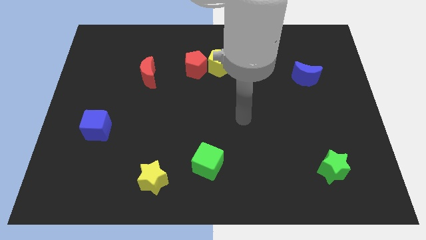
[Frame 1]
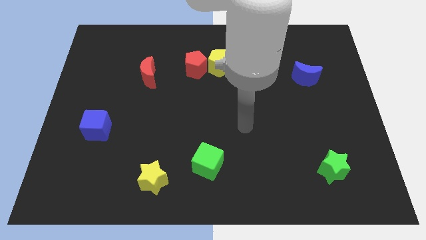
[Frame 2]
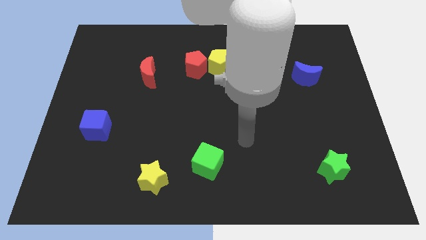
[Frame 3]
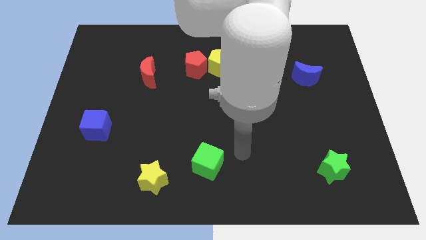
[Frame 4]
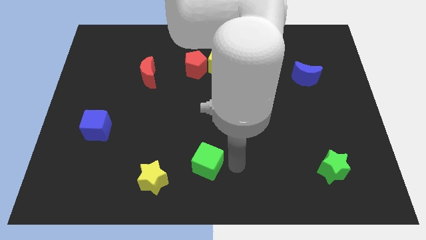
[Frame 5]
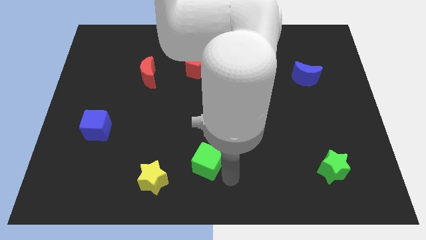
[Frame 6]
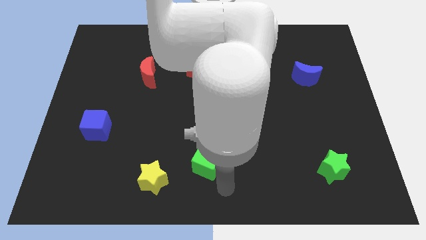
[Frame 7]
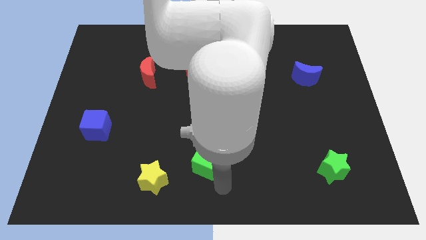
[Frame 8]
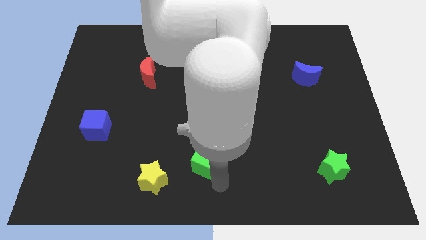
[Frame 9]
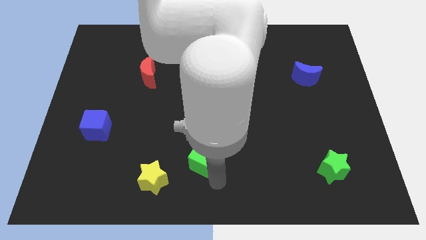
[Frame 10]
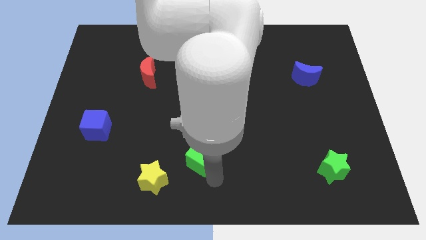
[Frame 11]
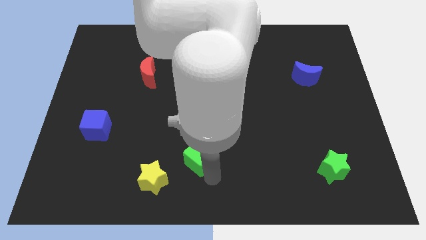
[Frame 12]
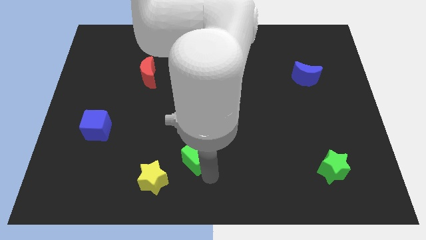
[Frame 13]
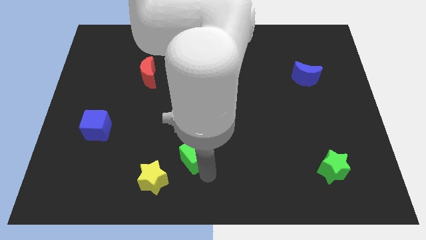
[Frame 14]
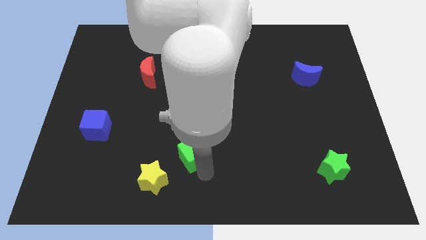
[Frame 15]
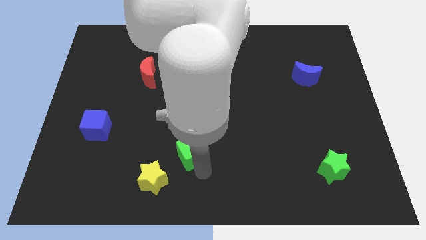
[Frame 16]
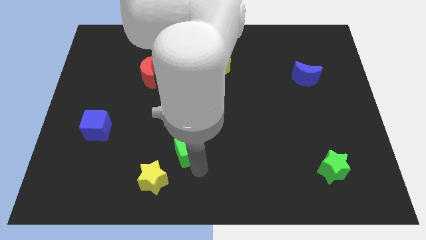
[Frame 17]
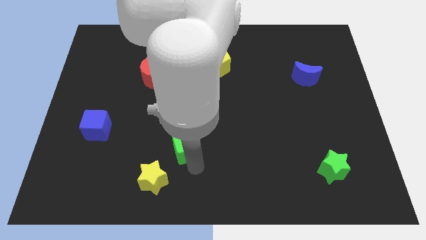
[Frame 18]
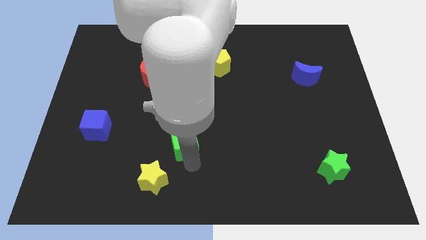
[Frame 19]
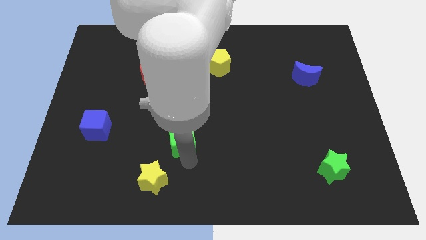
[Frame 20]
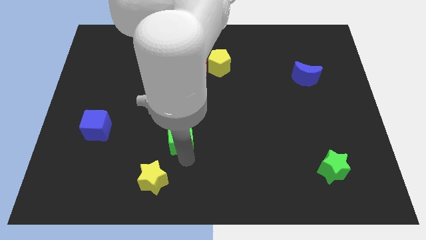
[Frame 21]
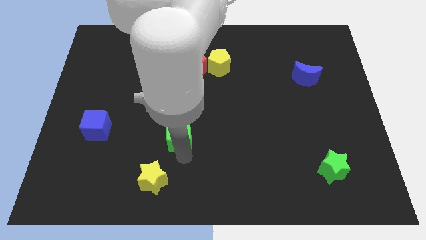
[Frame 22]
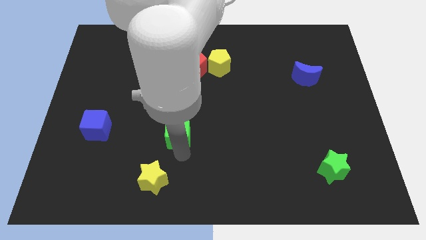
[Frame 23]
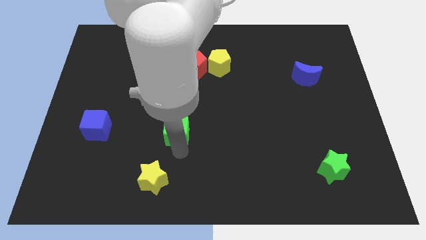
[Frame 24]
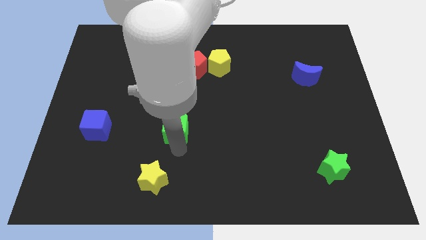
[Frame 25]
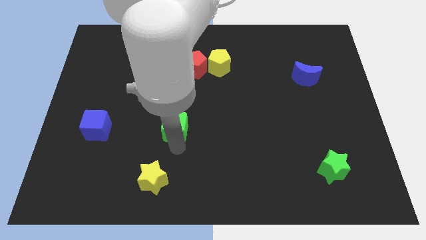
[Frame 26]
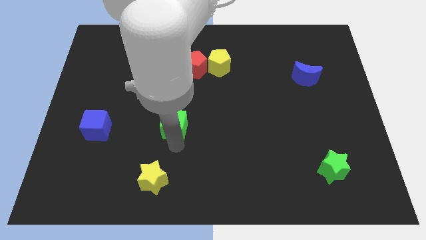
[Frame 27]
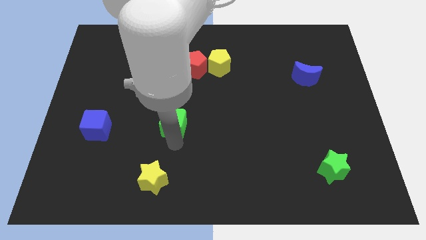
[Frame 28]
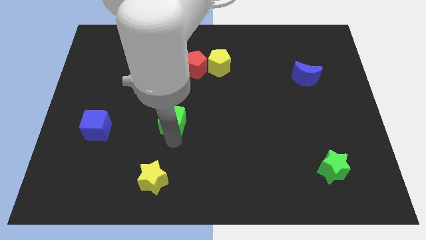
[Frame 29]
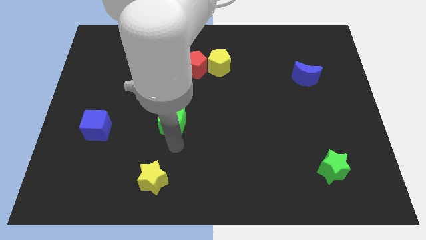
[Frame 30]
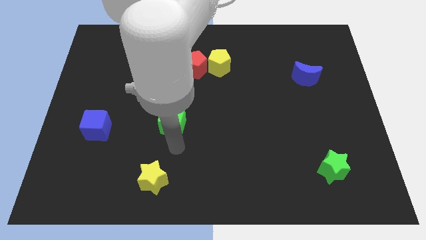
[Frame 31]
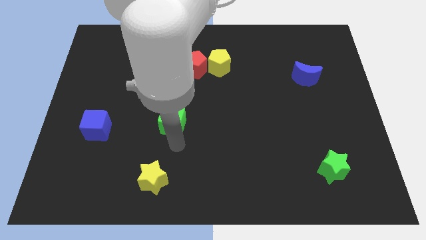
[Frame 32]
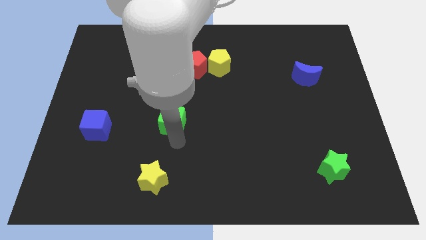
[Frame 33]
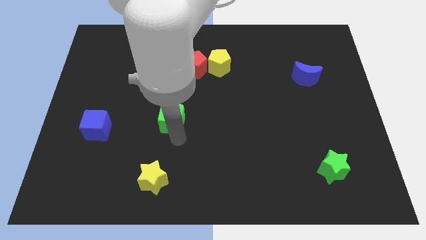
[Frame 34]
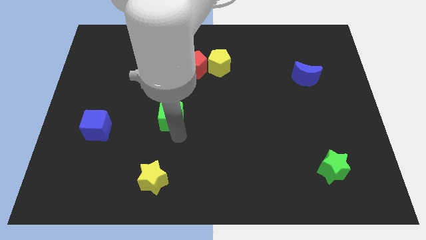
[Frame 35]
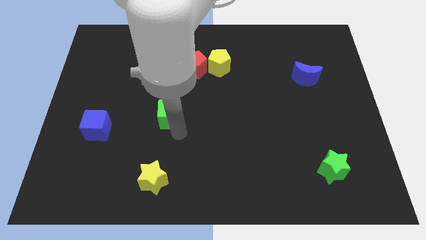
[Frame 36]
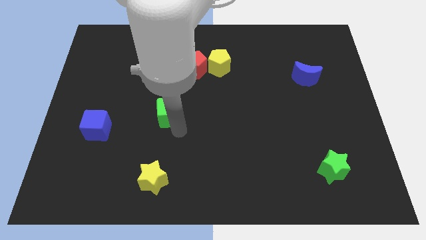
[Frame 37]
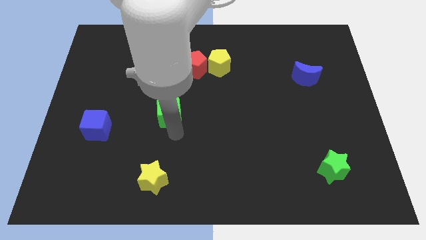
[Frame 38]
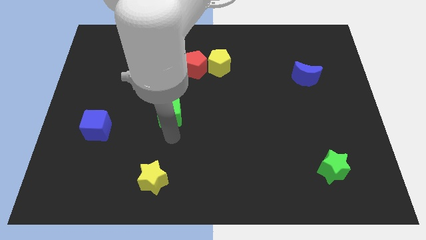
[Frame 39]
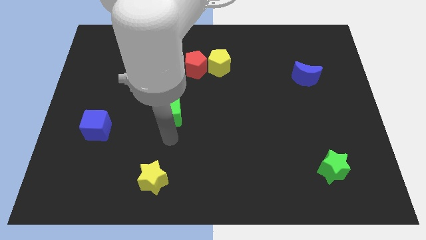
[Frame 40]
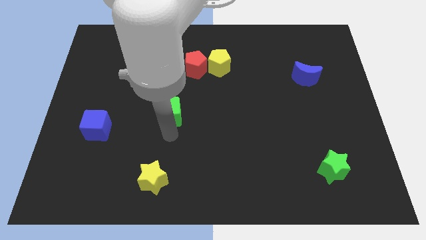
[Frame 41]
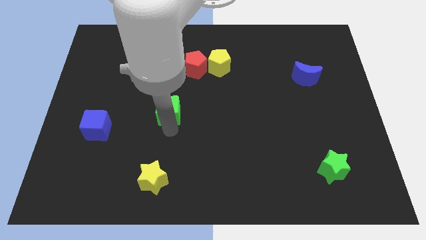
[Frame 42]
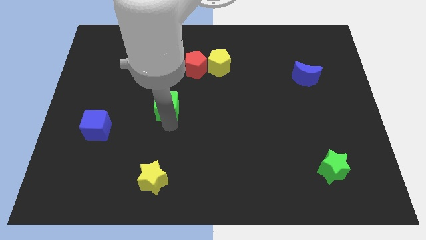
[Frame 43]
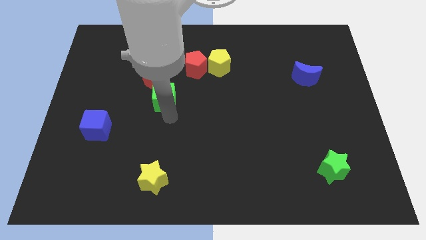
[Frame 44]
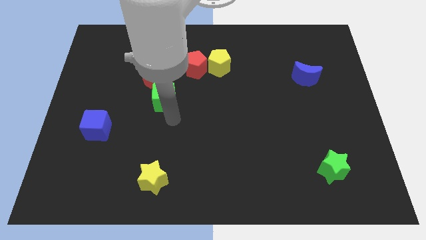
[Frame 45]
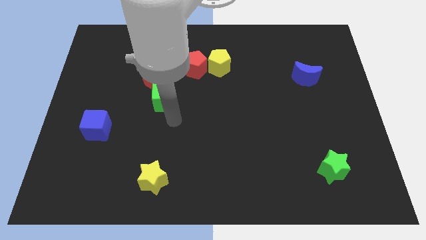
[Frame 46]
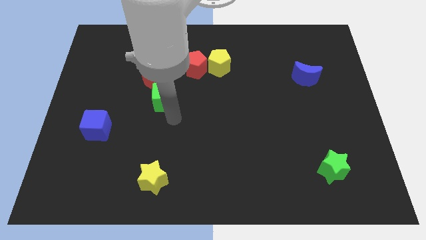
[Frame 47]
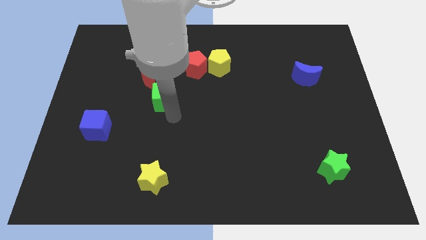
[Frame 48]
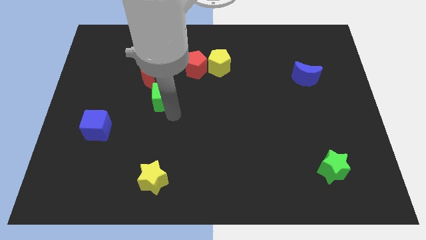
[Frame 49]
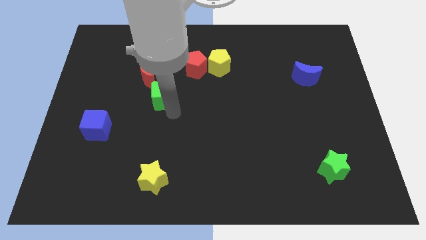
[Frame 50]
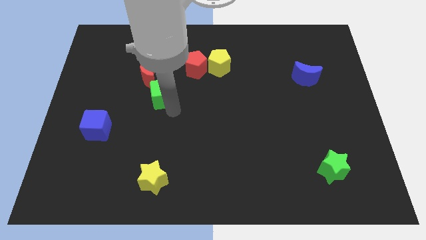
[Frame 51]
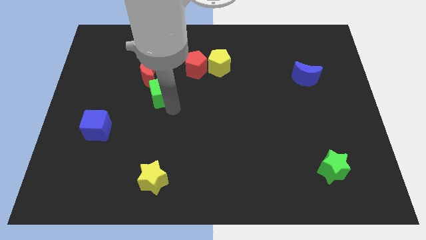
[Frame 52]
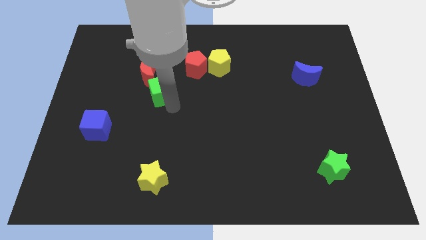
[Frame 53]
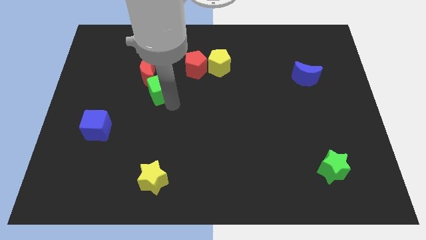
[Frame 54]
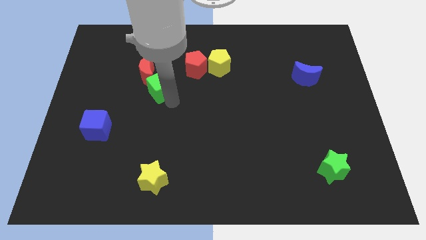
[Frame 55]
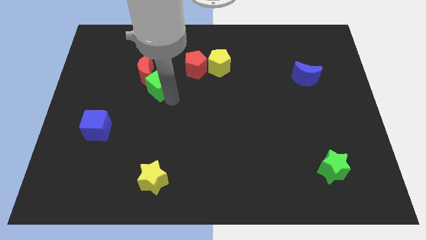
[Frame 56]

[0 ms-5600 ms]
slide the green cube next to the red moon

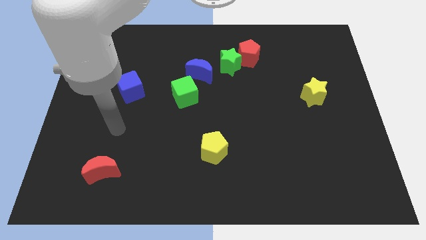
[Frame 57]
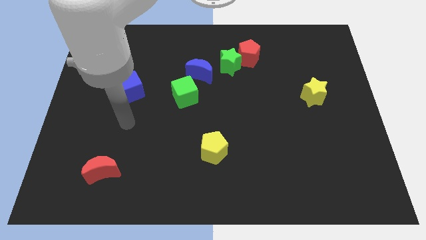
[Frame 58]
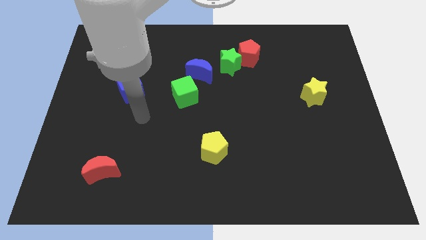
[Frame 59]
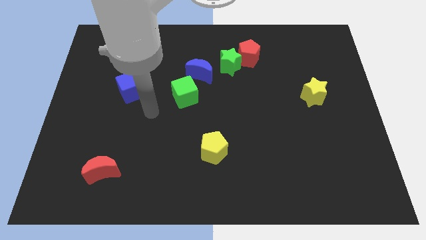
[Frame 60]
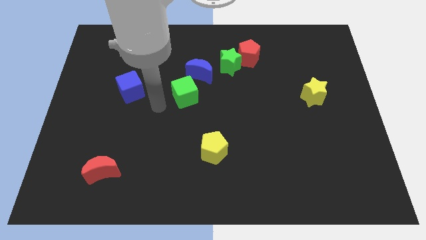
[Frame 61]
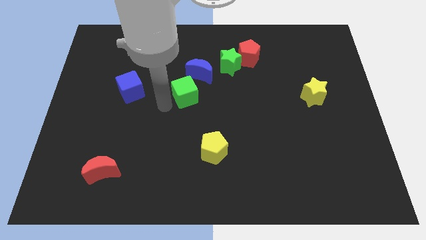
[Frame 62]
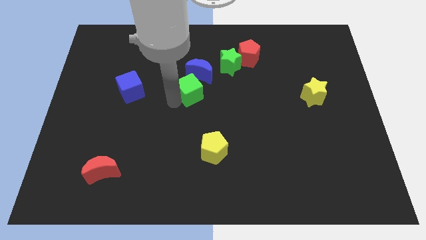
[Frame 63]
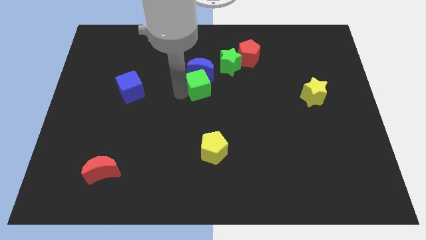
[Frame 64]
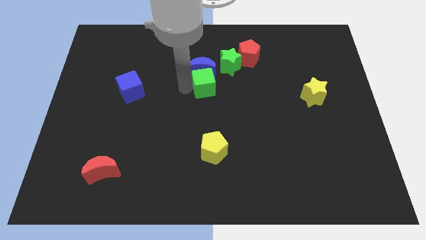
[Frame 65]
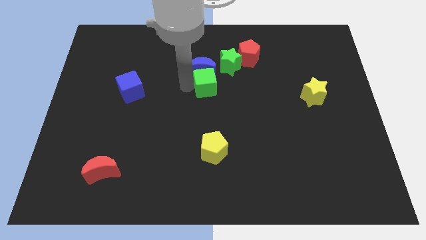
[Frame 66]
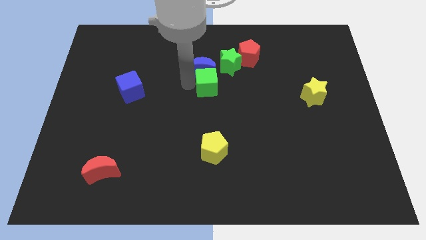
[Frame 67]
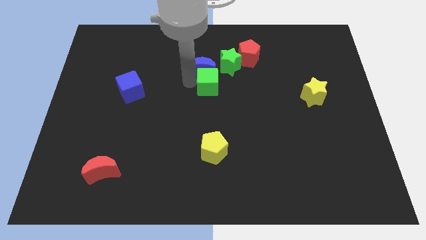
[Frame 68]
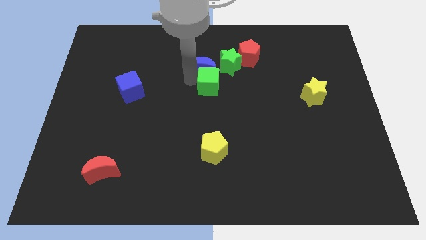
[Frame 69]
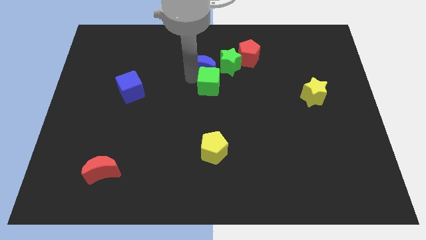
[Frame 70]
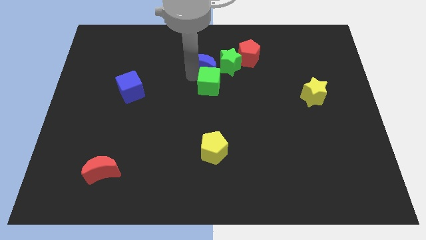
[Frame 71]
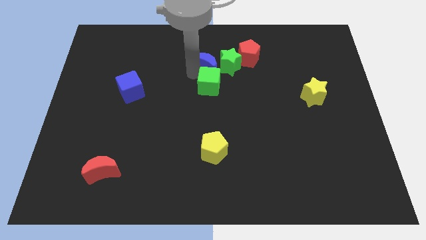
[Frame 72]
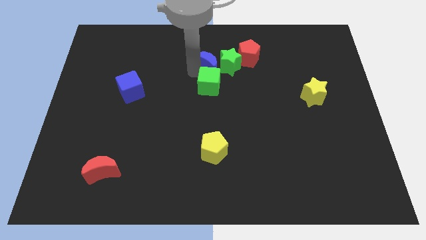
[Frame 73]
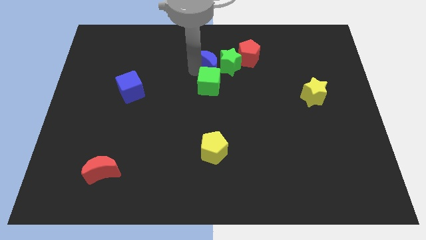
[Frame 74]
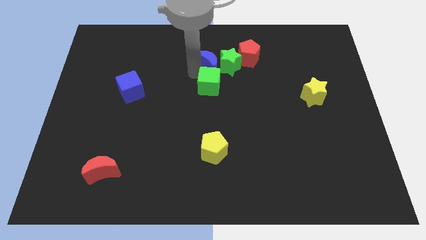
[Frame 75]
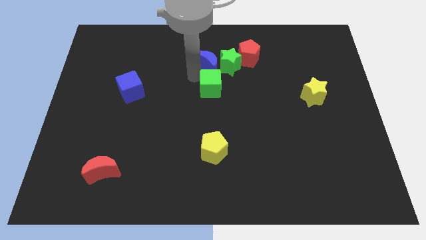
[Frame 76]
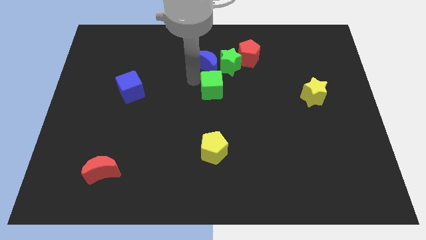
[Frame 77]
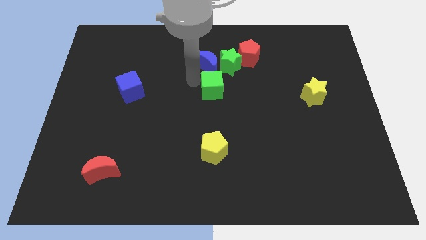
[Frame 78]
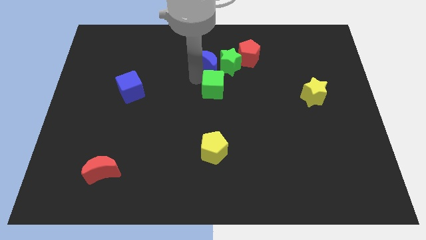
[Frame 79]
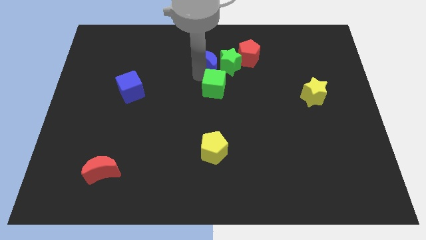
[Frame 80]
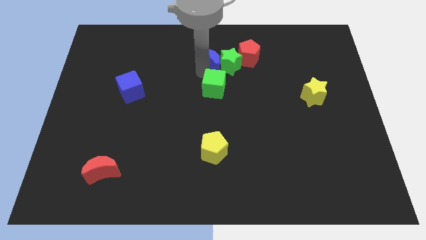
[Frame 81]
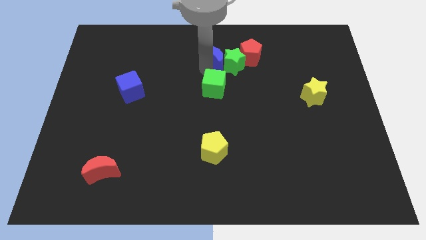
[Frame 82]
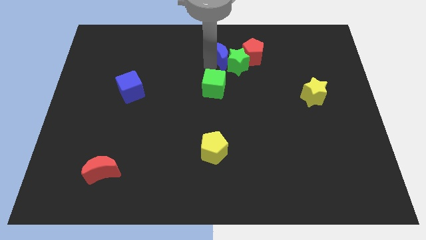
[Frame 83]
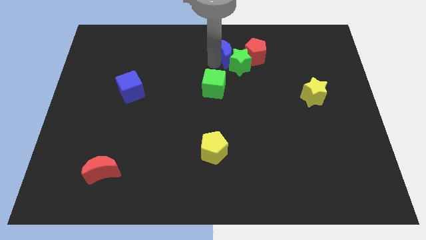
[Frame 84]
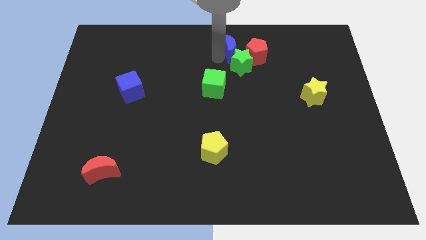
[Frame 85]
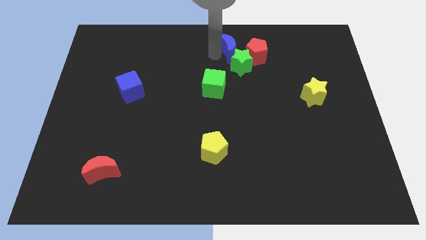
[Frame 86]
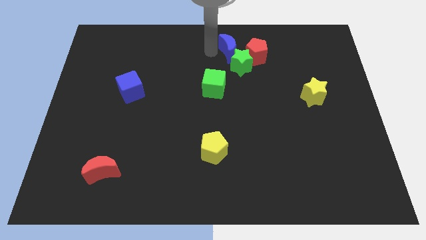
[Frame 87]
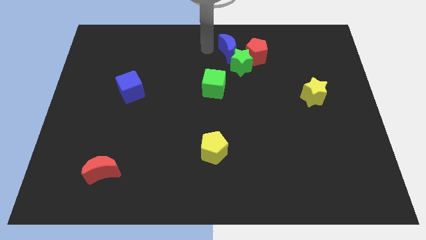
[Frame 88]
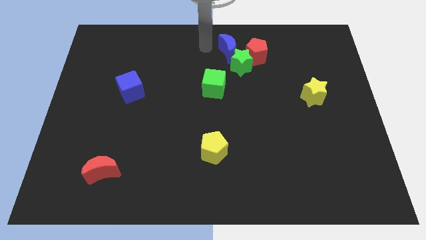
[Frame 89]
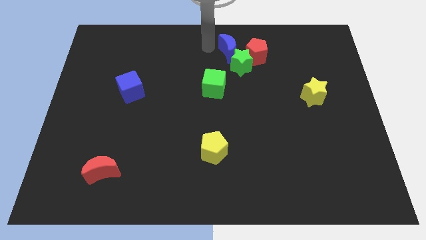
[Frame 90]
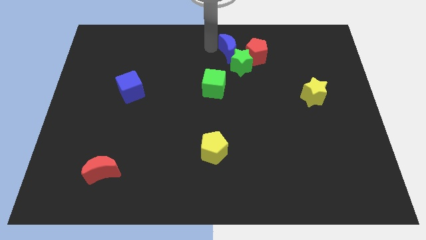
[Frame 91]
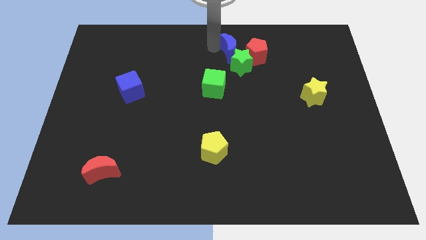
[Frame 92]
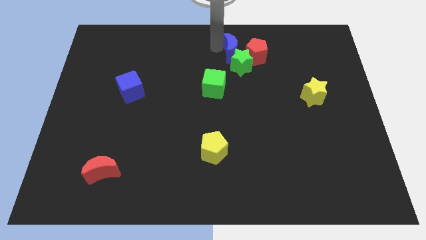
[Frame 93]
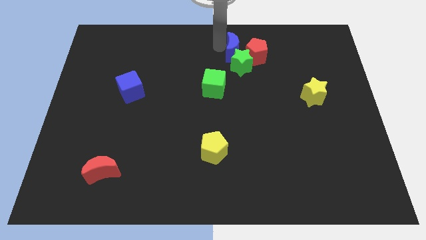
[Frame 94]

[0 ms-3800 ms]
push the blue moon towards the red pentagon
